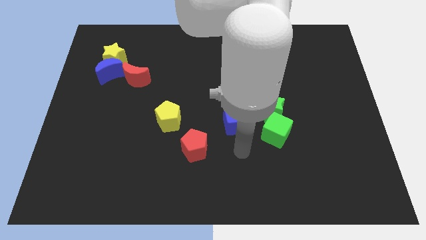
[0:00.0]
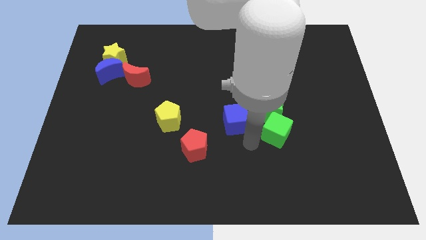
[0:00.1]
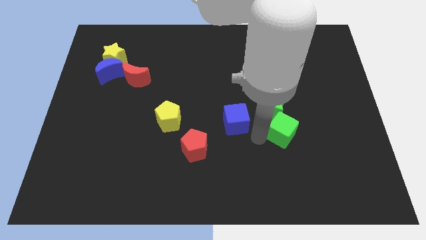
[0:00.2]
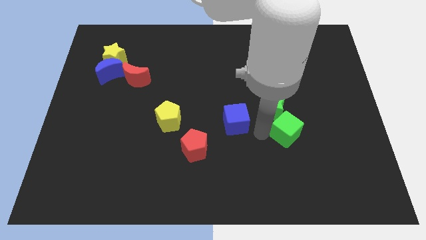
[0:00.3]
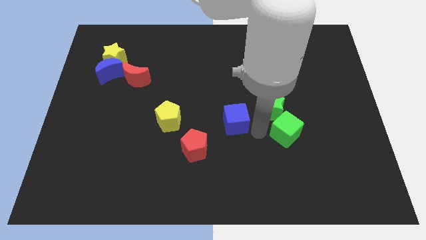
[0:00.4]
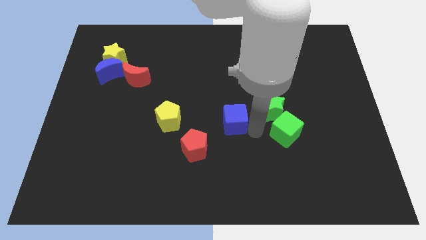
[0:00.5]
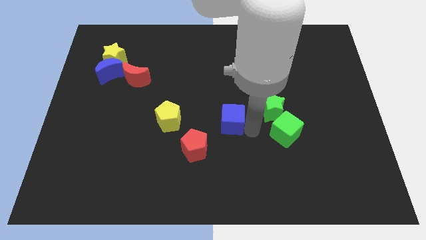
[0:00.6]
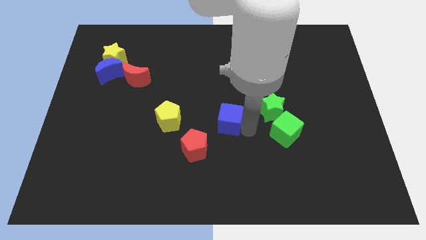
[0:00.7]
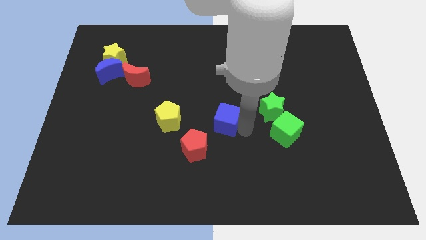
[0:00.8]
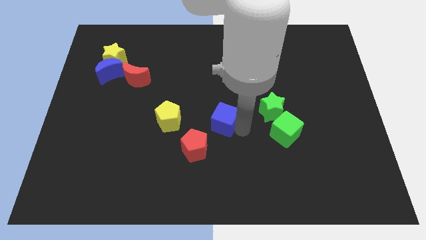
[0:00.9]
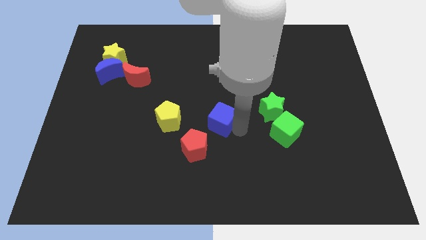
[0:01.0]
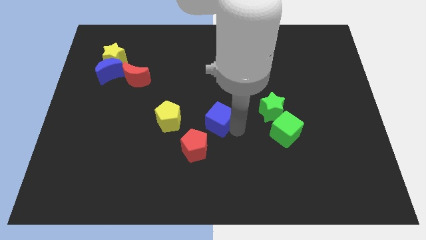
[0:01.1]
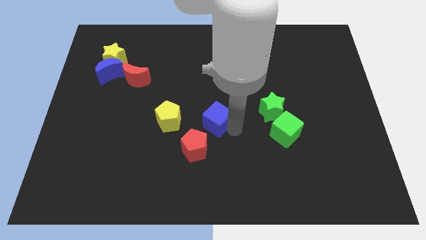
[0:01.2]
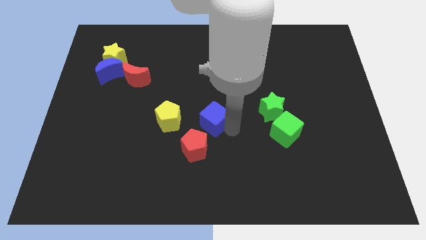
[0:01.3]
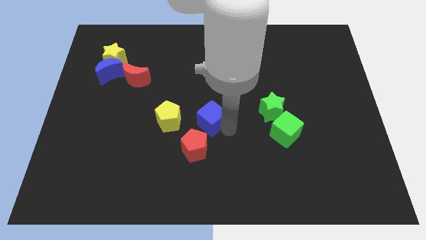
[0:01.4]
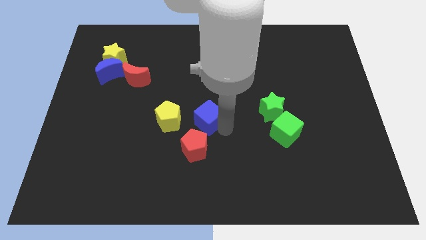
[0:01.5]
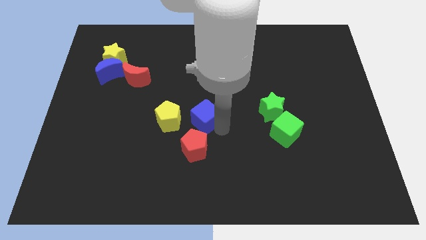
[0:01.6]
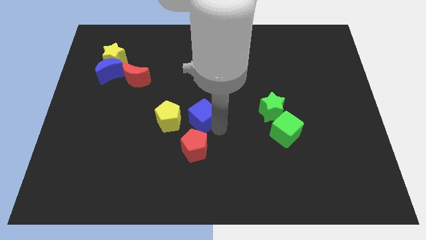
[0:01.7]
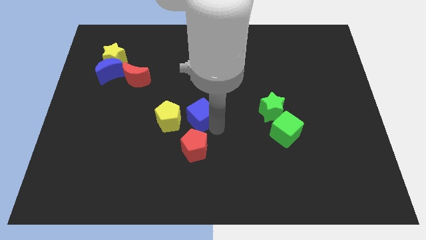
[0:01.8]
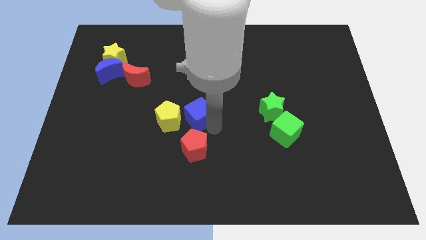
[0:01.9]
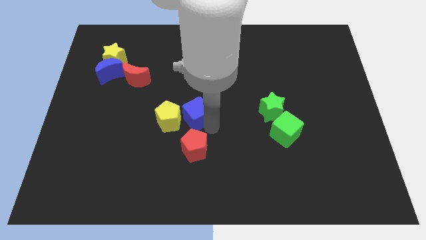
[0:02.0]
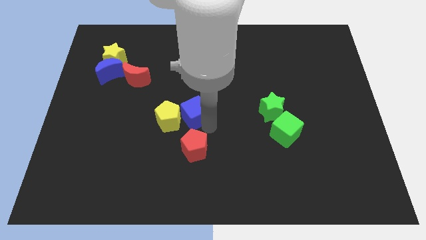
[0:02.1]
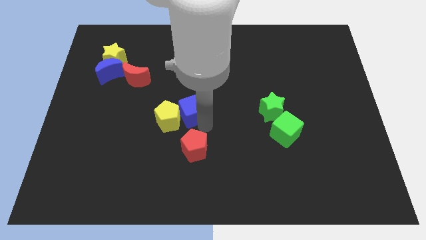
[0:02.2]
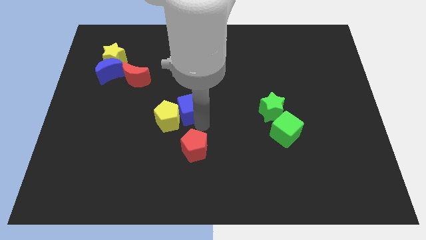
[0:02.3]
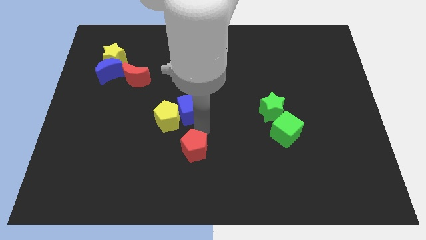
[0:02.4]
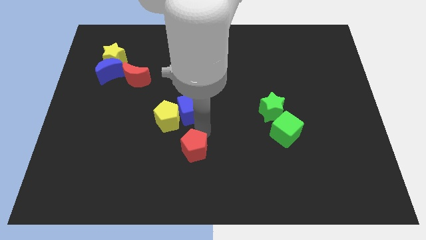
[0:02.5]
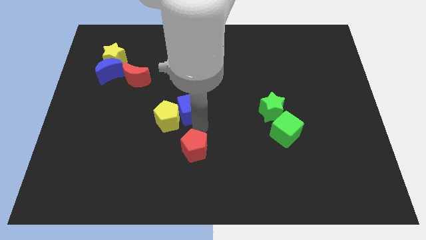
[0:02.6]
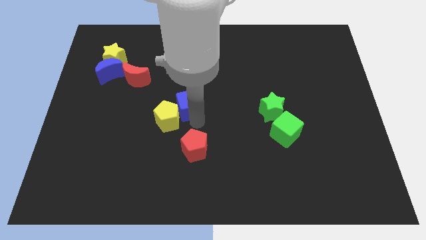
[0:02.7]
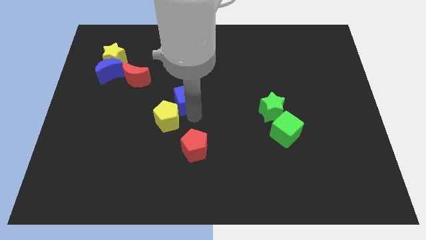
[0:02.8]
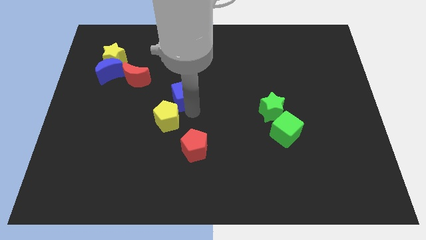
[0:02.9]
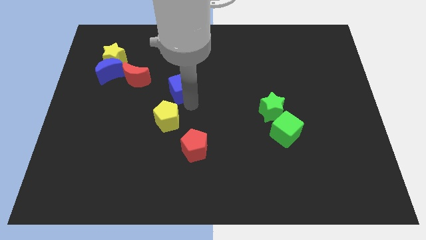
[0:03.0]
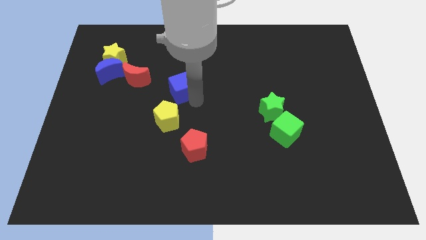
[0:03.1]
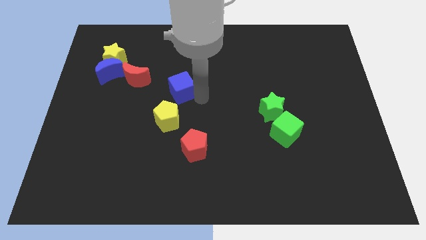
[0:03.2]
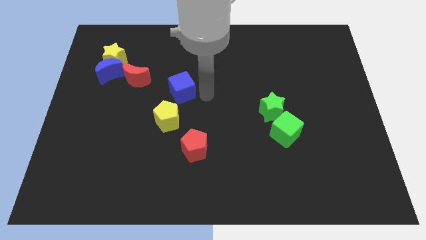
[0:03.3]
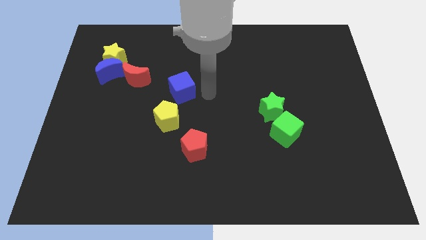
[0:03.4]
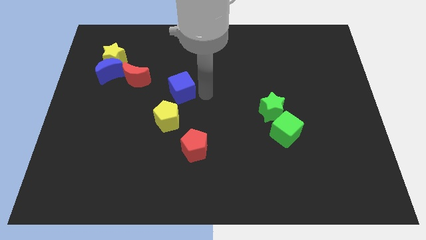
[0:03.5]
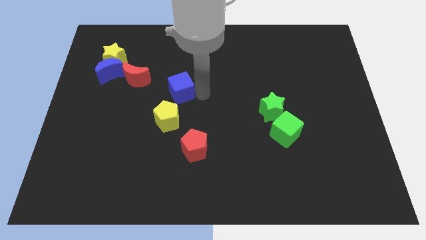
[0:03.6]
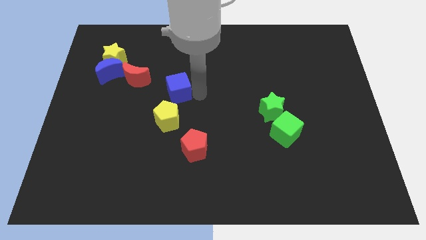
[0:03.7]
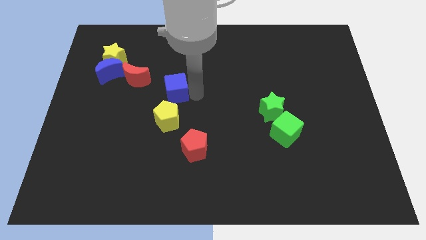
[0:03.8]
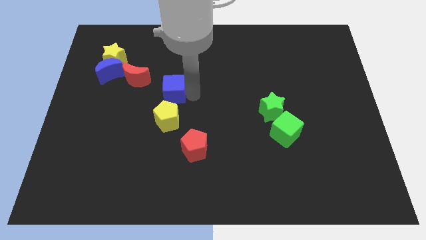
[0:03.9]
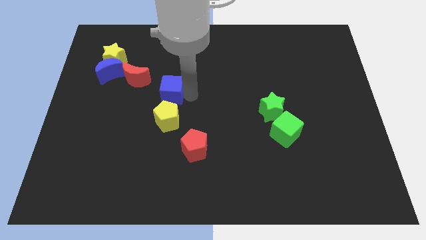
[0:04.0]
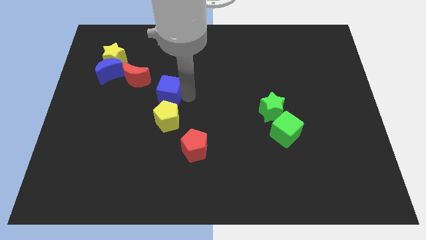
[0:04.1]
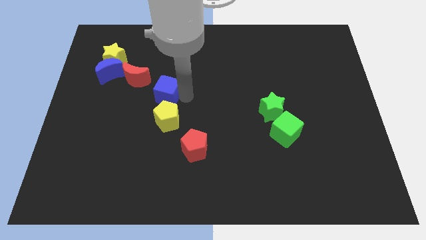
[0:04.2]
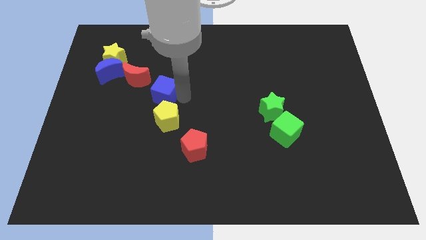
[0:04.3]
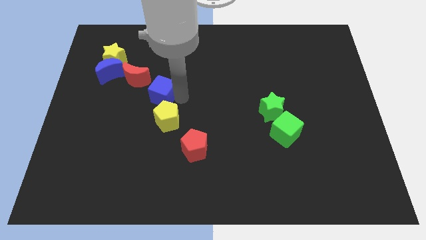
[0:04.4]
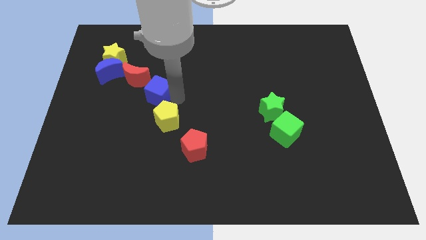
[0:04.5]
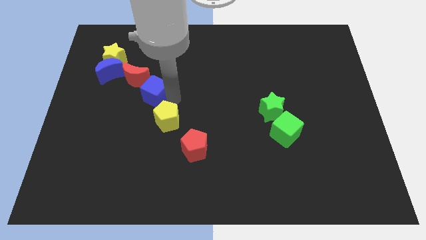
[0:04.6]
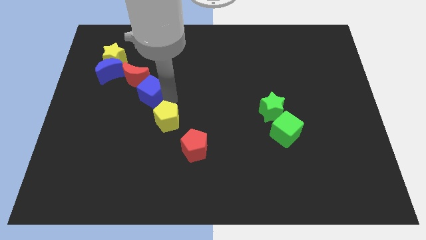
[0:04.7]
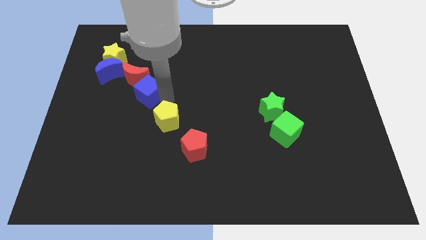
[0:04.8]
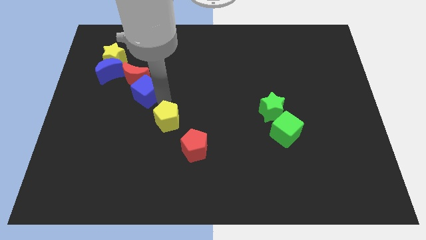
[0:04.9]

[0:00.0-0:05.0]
slide the blue cube close to the red moon

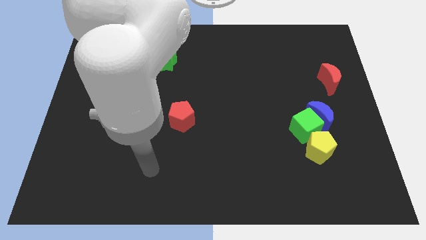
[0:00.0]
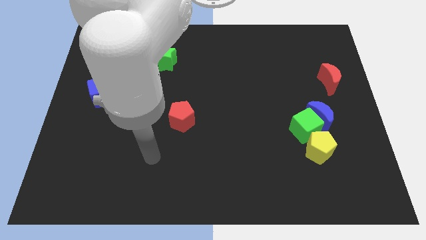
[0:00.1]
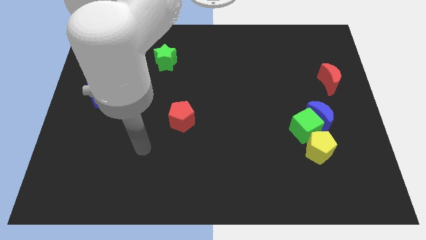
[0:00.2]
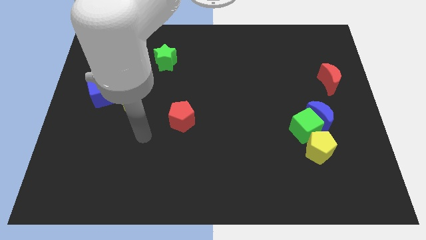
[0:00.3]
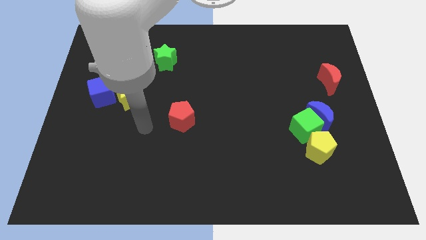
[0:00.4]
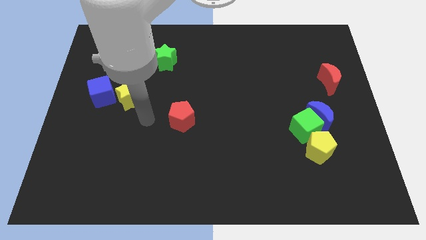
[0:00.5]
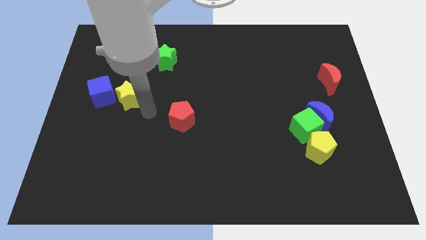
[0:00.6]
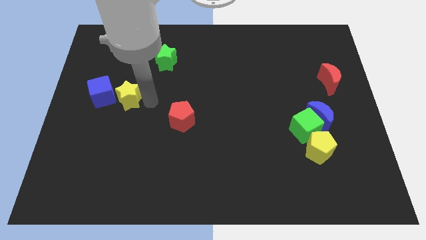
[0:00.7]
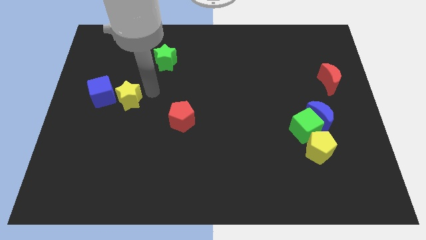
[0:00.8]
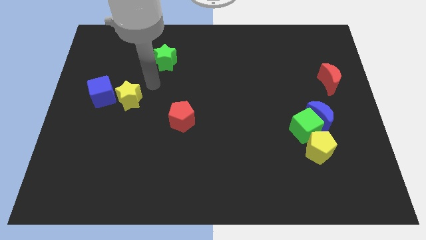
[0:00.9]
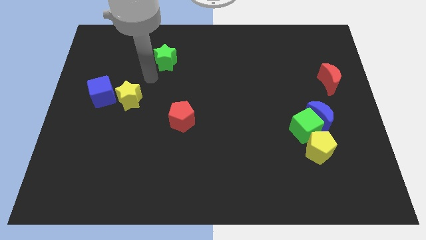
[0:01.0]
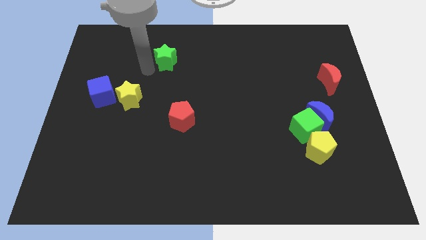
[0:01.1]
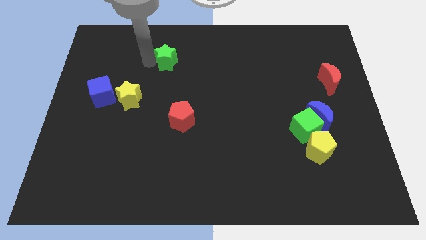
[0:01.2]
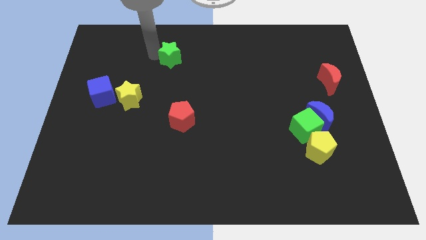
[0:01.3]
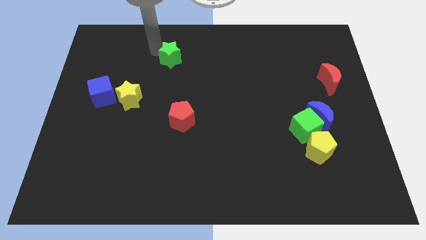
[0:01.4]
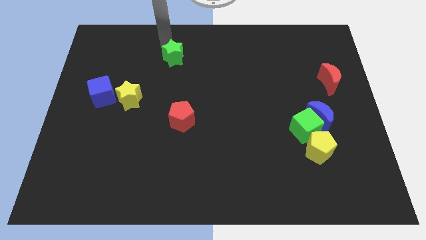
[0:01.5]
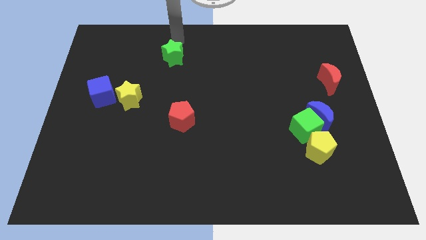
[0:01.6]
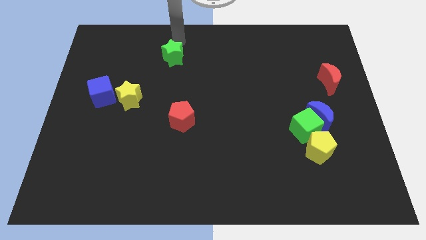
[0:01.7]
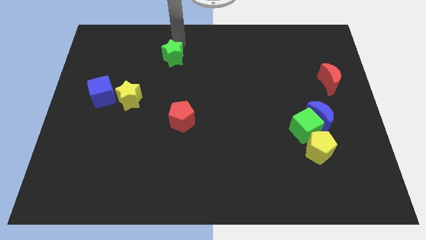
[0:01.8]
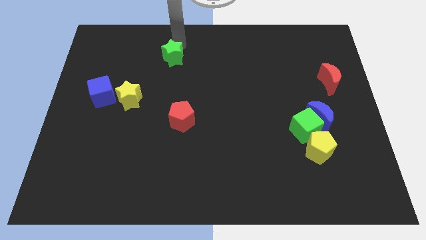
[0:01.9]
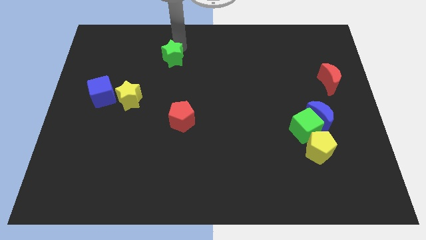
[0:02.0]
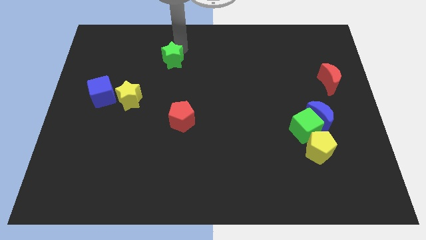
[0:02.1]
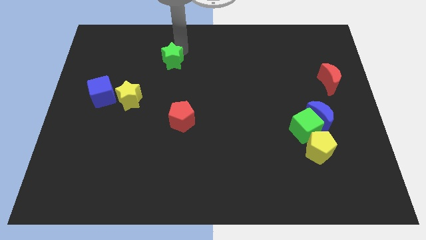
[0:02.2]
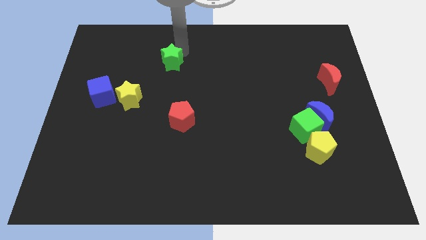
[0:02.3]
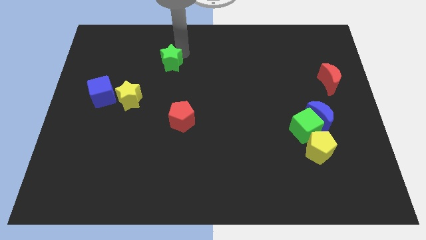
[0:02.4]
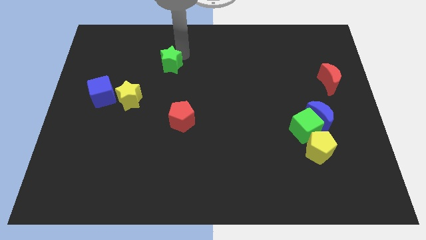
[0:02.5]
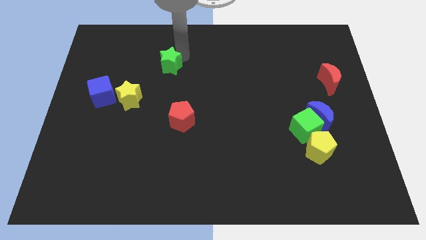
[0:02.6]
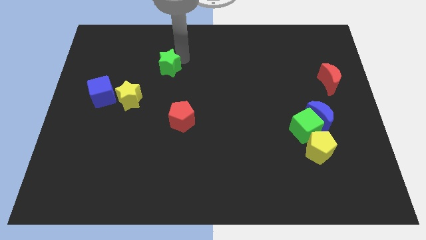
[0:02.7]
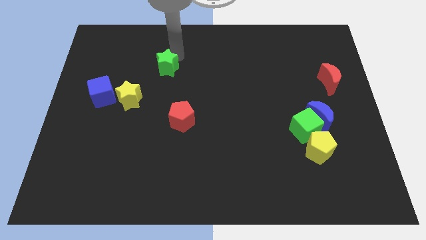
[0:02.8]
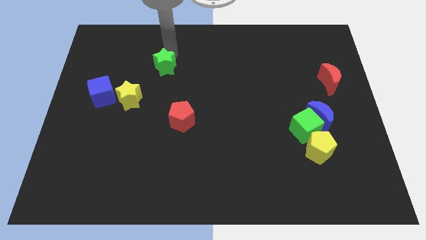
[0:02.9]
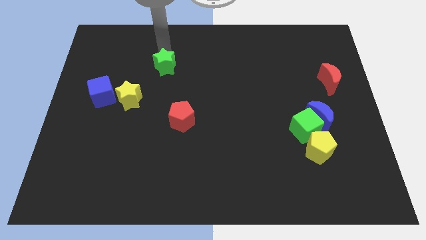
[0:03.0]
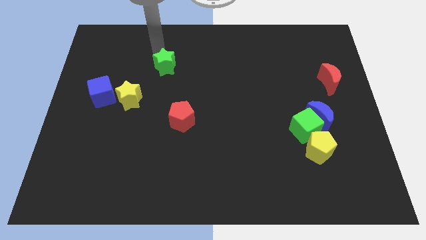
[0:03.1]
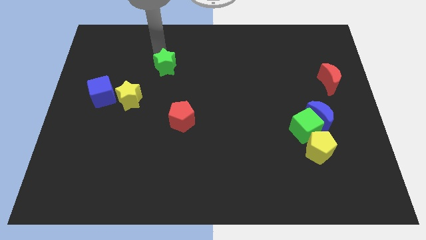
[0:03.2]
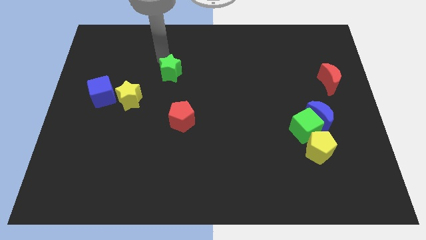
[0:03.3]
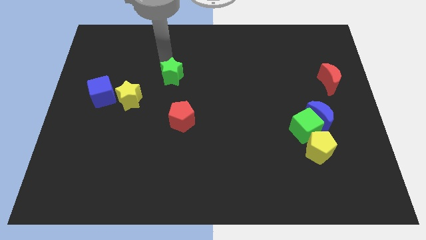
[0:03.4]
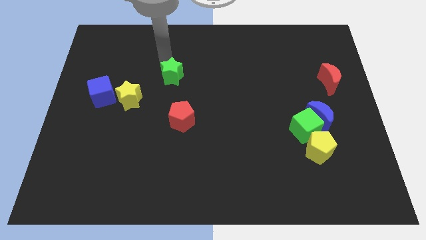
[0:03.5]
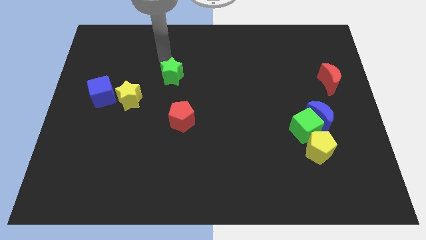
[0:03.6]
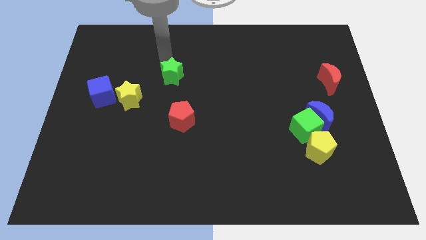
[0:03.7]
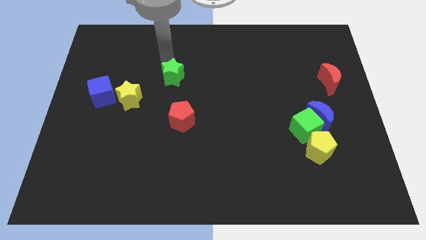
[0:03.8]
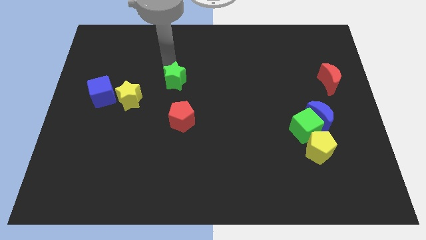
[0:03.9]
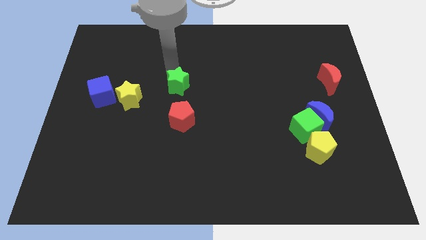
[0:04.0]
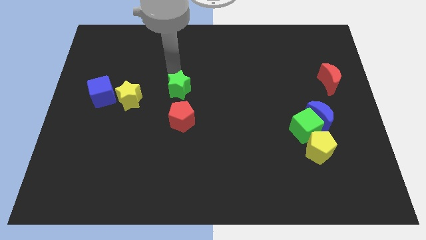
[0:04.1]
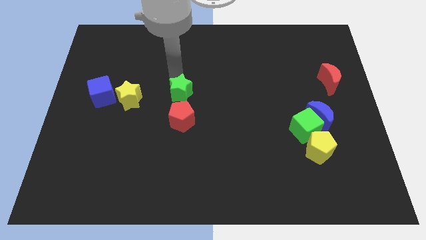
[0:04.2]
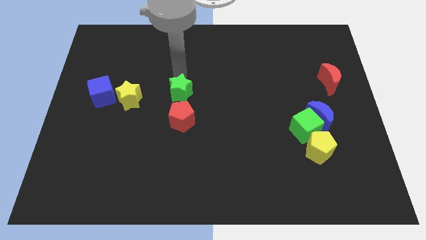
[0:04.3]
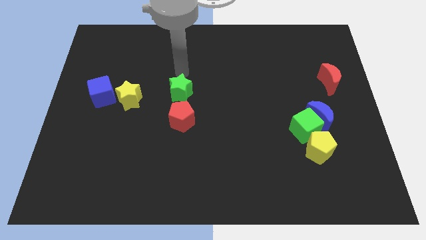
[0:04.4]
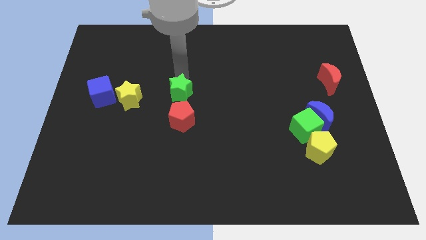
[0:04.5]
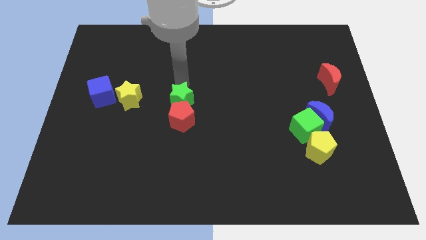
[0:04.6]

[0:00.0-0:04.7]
slide the green star towards the red pentagon
